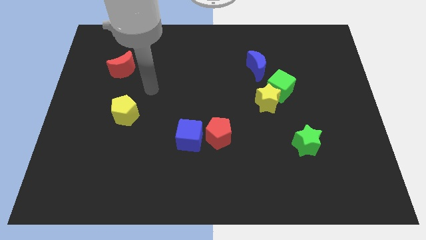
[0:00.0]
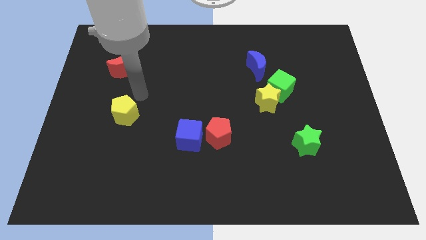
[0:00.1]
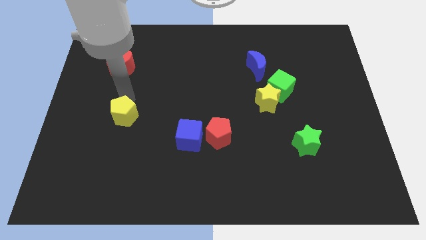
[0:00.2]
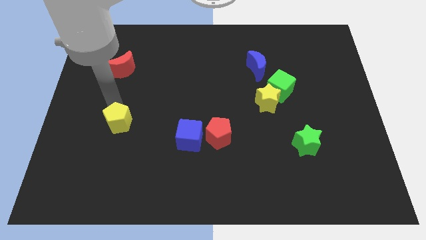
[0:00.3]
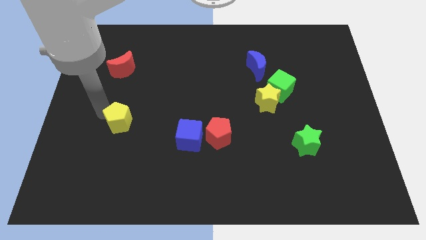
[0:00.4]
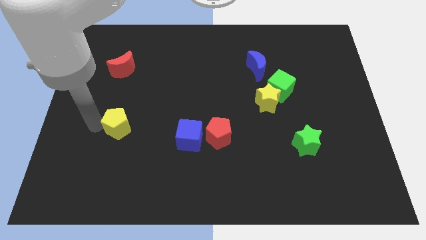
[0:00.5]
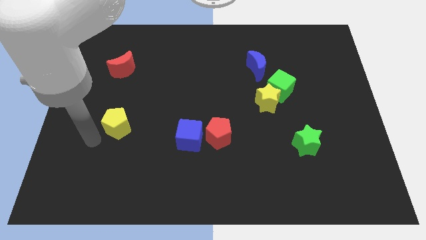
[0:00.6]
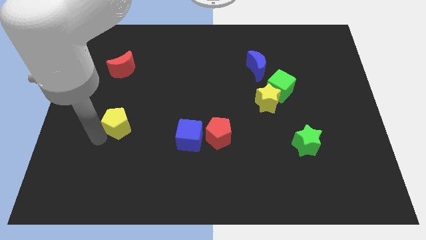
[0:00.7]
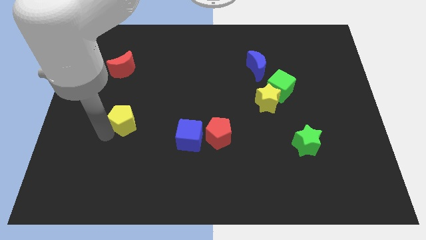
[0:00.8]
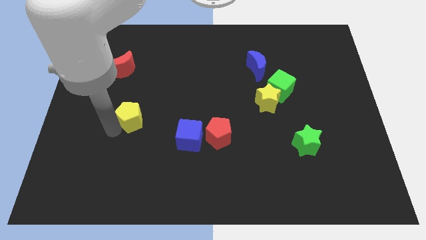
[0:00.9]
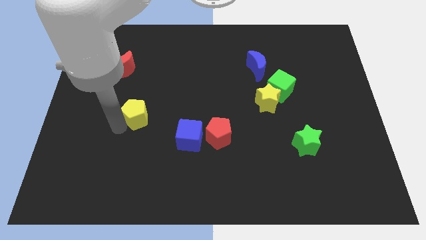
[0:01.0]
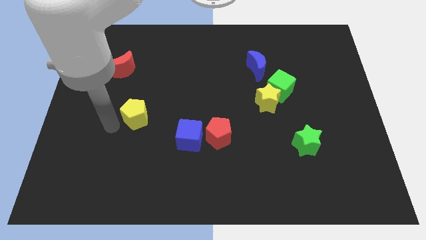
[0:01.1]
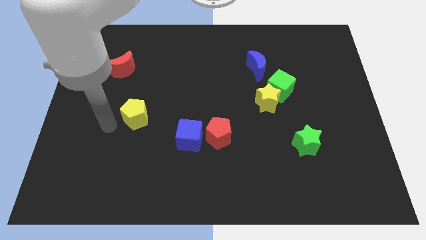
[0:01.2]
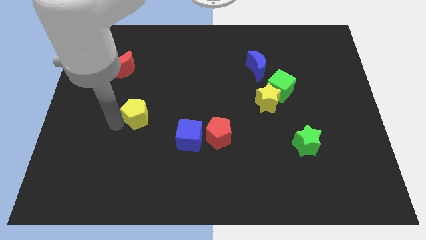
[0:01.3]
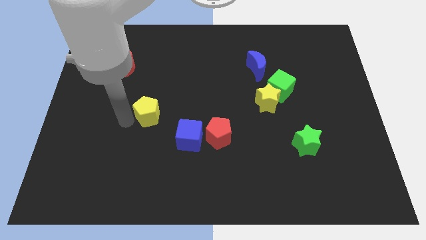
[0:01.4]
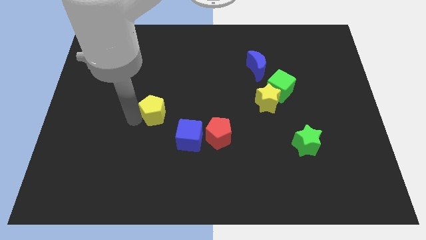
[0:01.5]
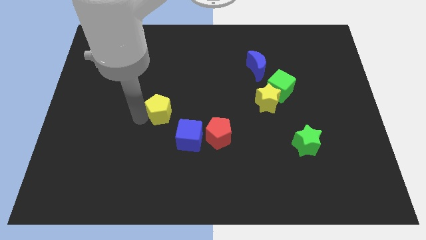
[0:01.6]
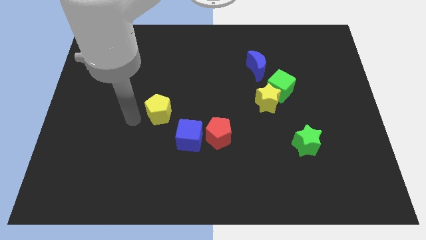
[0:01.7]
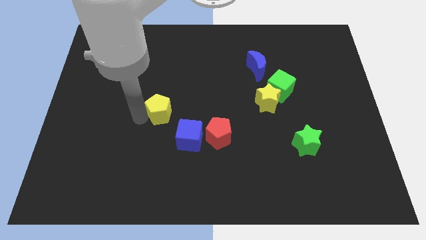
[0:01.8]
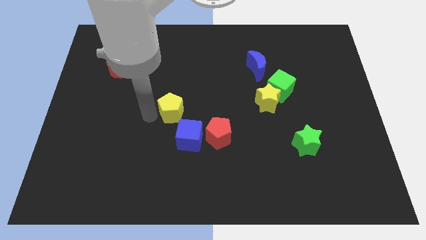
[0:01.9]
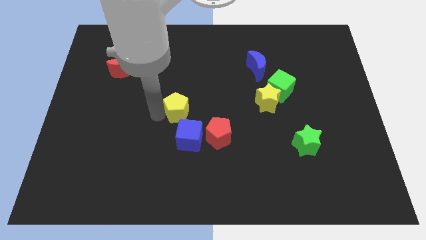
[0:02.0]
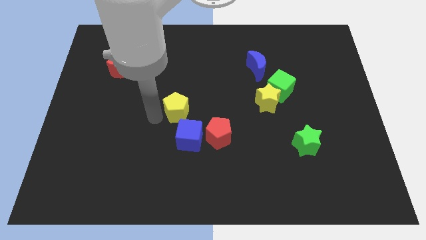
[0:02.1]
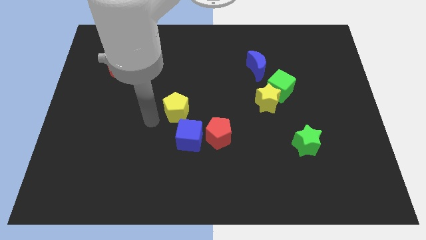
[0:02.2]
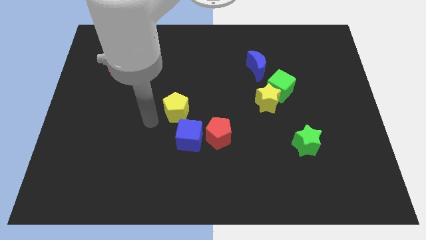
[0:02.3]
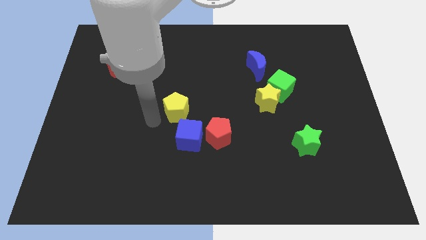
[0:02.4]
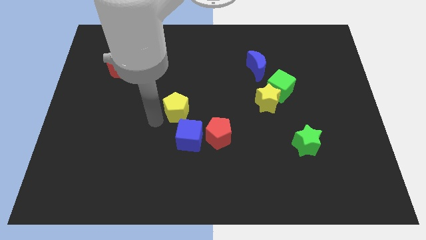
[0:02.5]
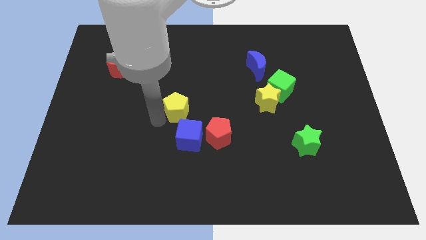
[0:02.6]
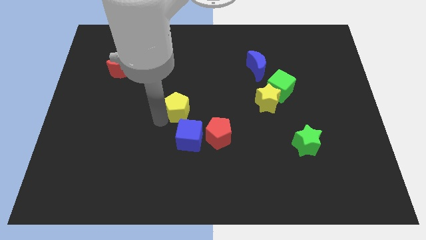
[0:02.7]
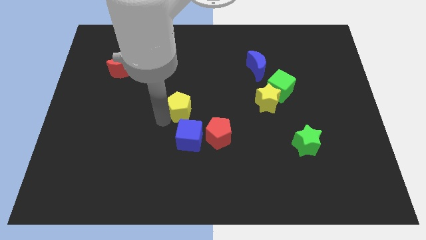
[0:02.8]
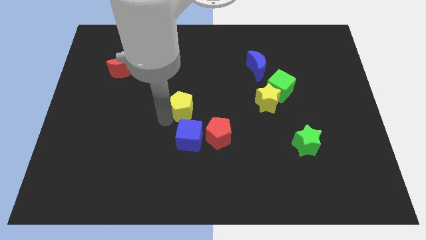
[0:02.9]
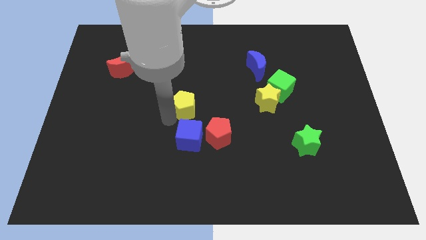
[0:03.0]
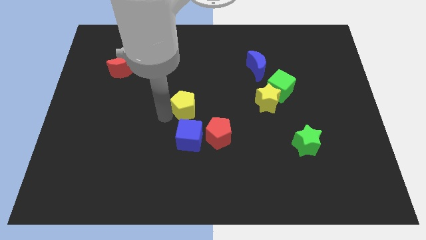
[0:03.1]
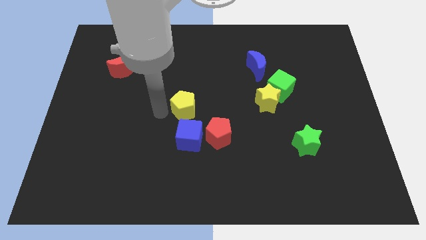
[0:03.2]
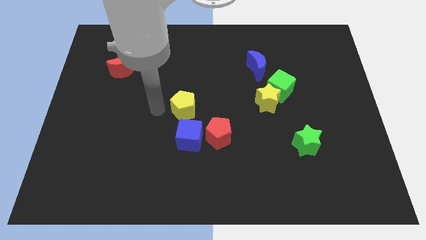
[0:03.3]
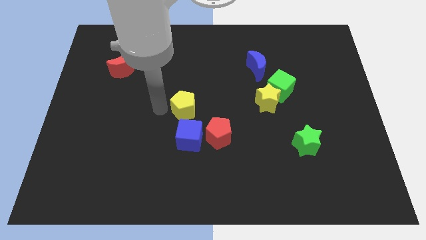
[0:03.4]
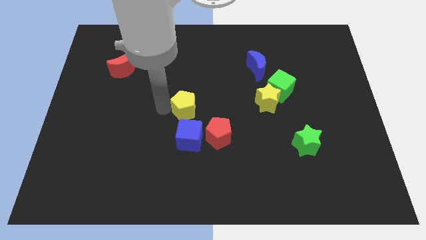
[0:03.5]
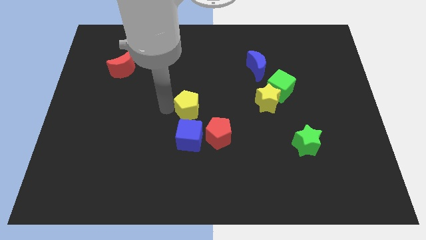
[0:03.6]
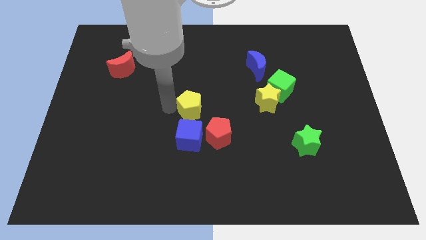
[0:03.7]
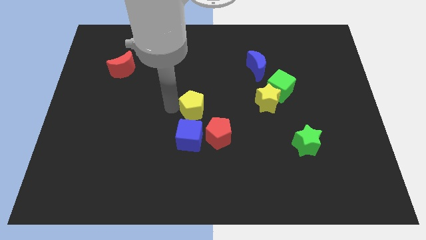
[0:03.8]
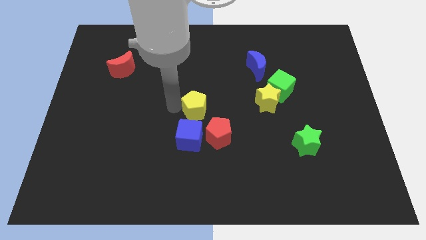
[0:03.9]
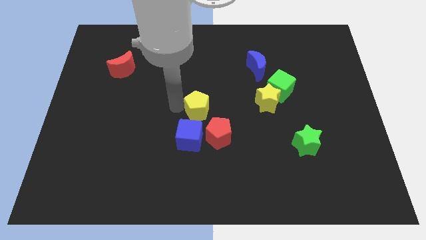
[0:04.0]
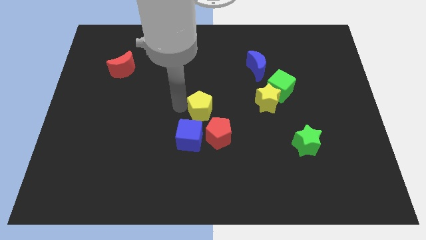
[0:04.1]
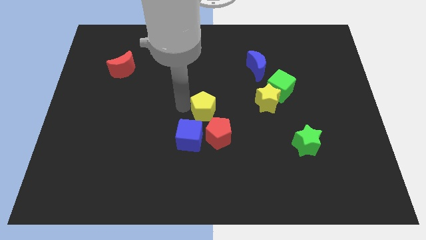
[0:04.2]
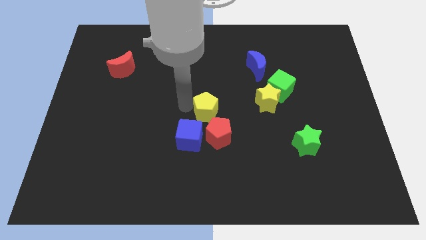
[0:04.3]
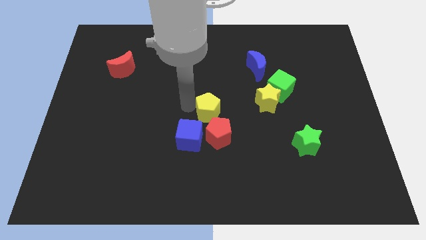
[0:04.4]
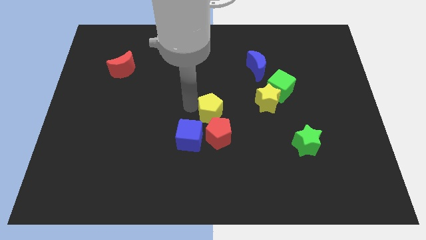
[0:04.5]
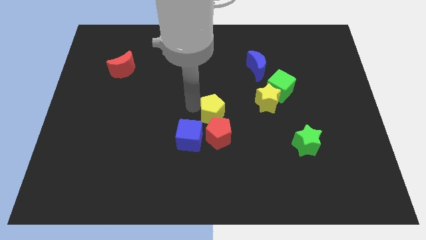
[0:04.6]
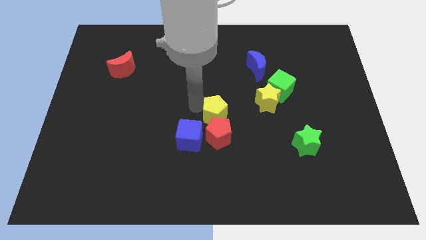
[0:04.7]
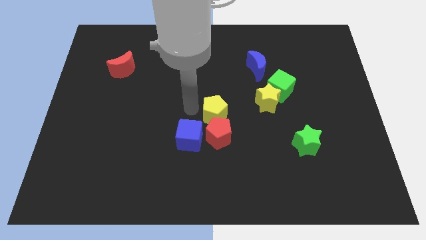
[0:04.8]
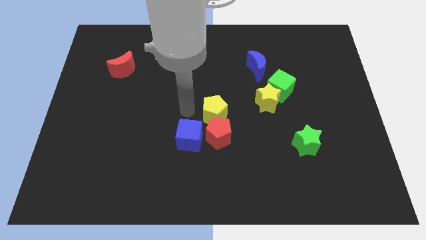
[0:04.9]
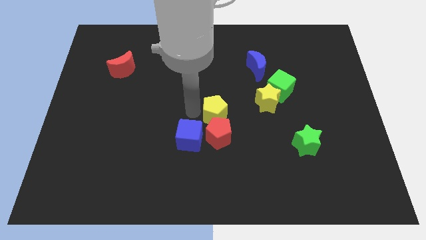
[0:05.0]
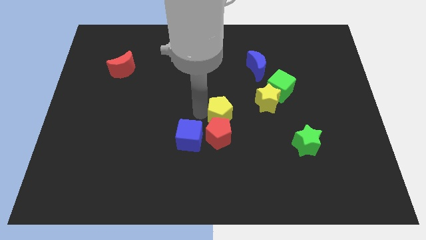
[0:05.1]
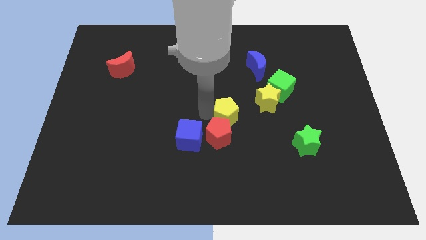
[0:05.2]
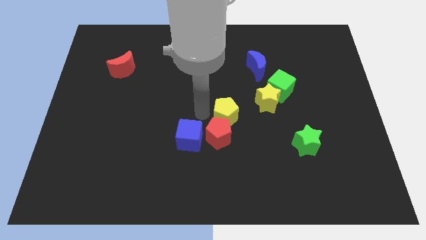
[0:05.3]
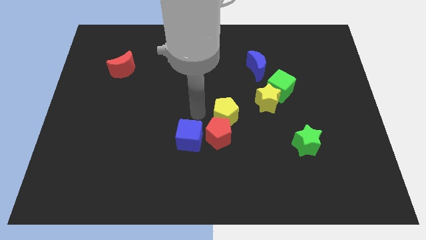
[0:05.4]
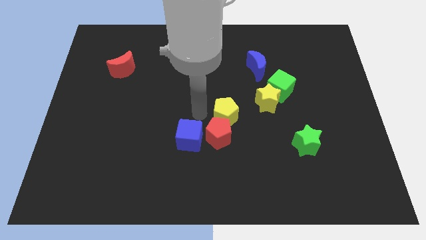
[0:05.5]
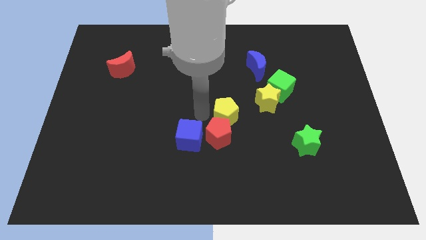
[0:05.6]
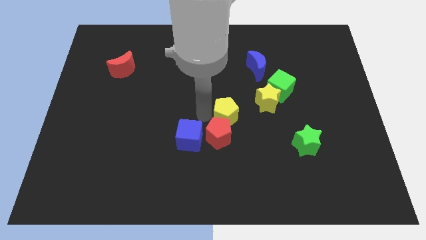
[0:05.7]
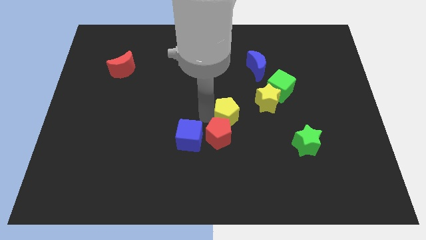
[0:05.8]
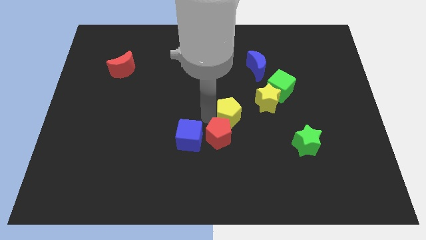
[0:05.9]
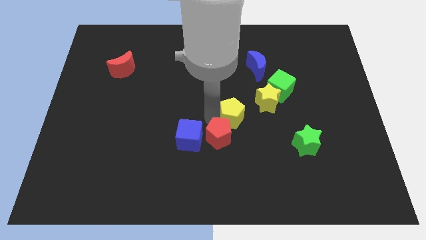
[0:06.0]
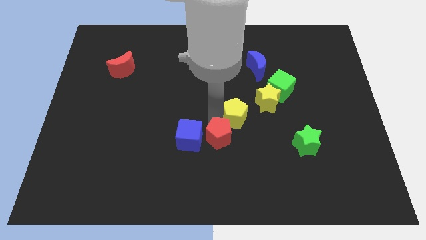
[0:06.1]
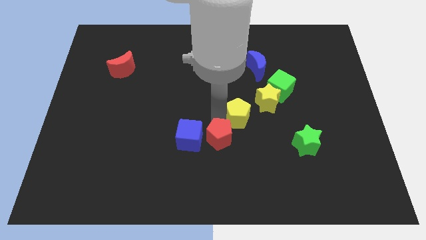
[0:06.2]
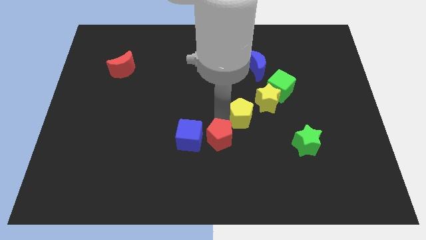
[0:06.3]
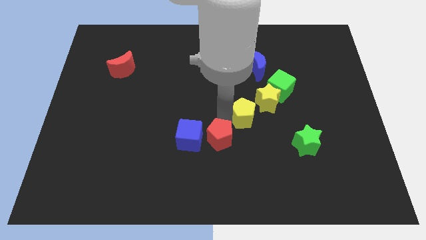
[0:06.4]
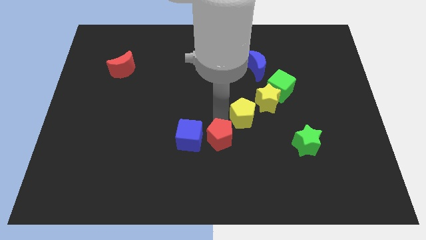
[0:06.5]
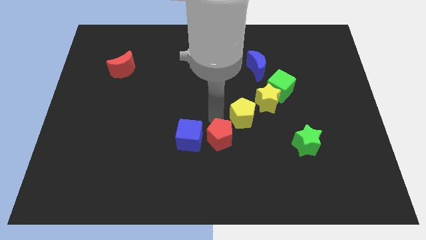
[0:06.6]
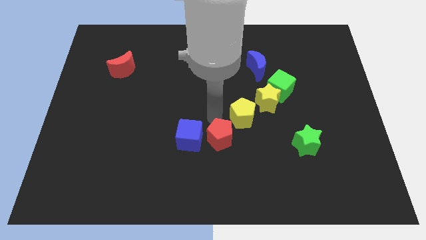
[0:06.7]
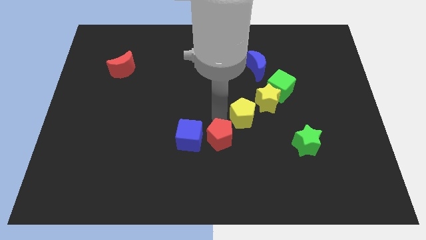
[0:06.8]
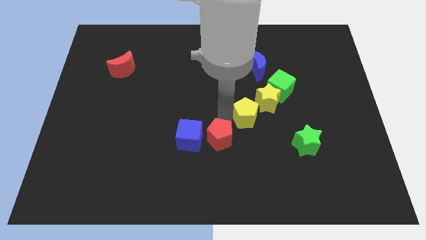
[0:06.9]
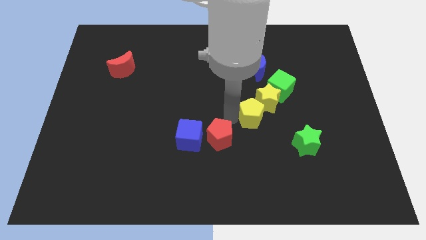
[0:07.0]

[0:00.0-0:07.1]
put the yellow pentagon to the bottom side of the blue moon
